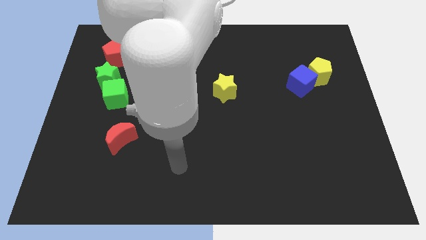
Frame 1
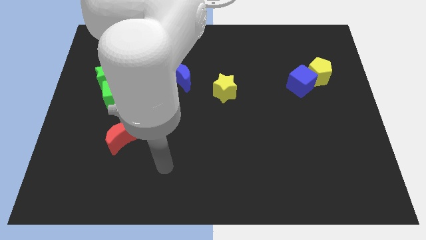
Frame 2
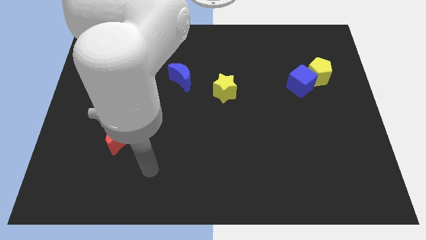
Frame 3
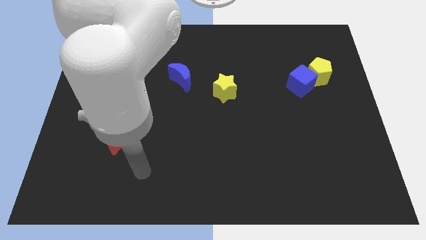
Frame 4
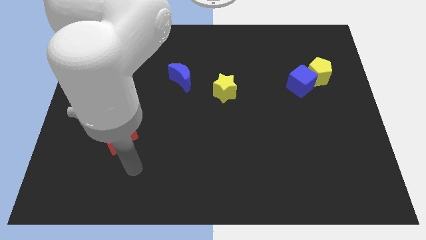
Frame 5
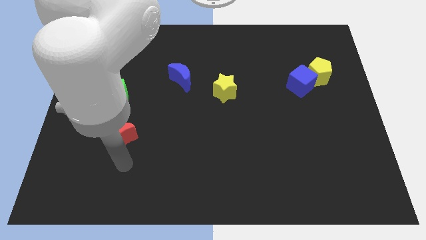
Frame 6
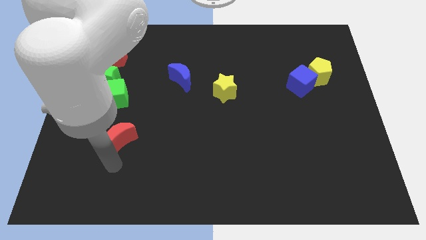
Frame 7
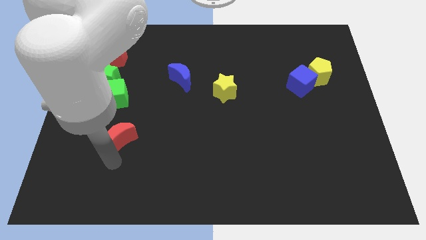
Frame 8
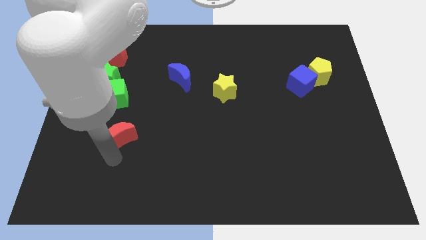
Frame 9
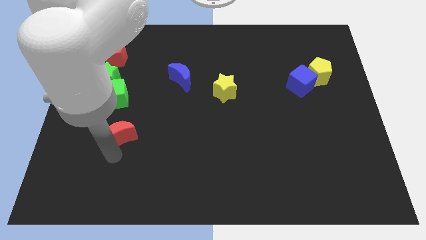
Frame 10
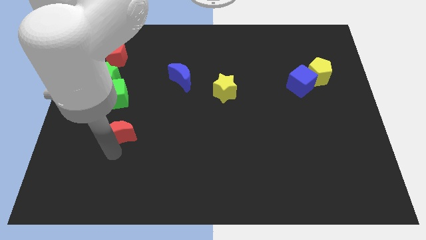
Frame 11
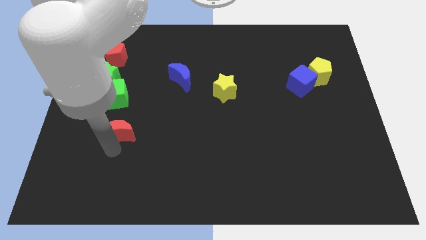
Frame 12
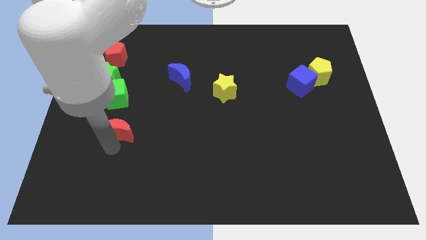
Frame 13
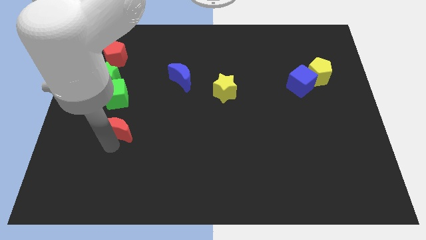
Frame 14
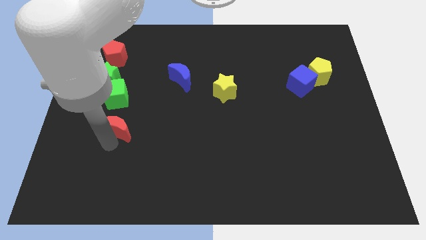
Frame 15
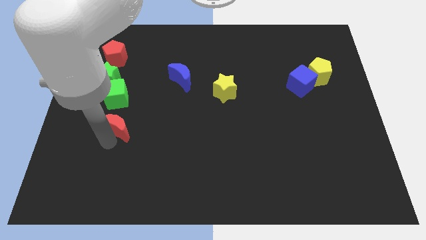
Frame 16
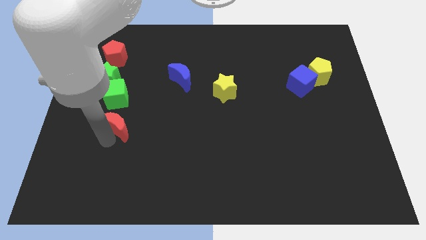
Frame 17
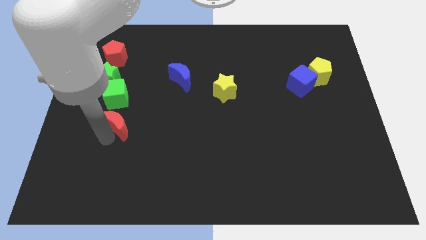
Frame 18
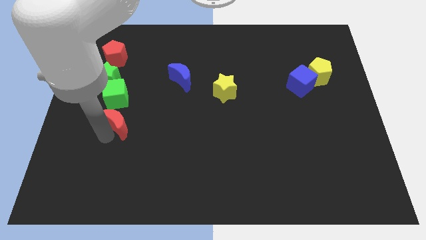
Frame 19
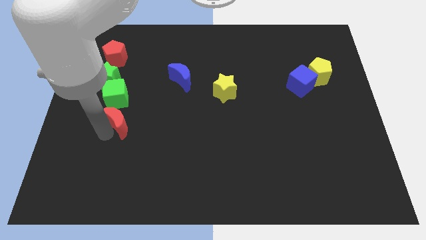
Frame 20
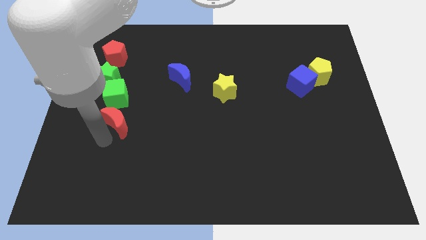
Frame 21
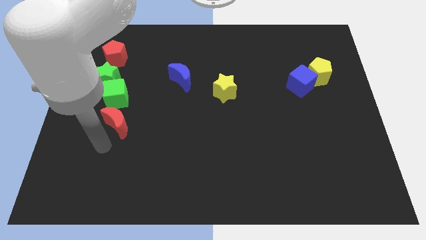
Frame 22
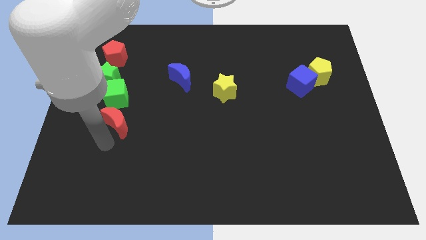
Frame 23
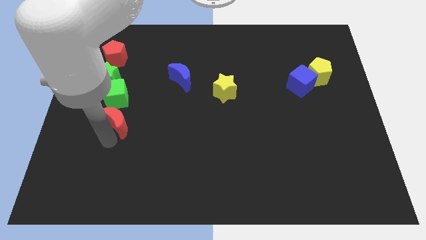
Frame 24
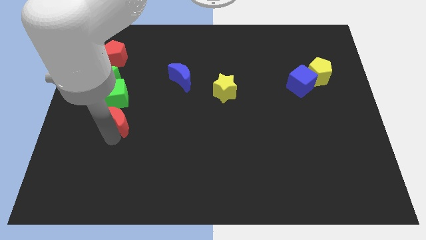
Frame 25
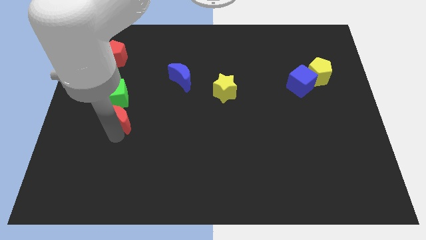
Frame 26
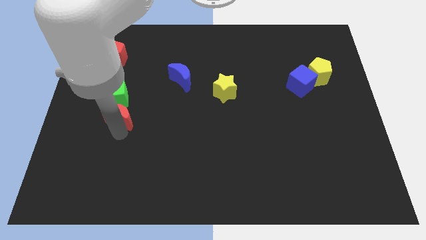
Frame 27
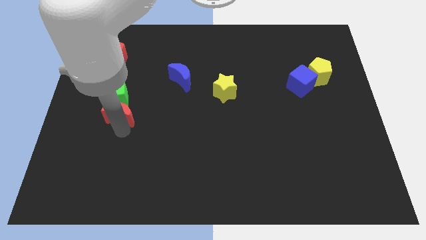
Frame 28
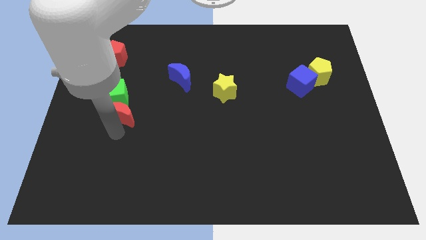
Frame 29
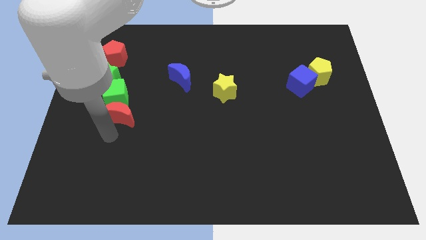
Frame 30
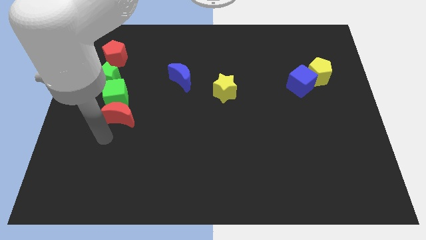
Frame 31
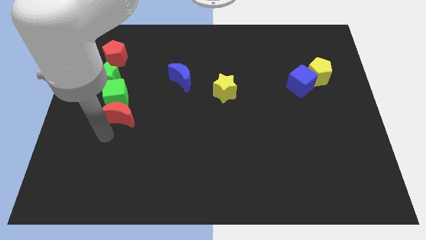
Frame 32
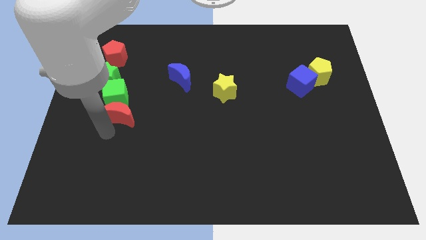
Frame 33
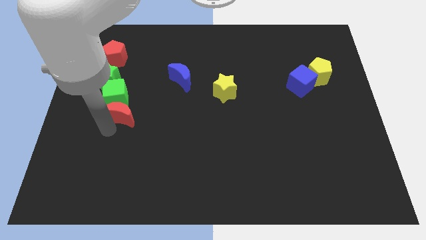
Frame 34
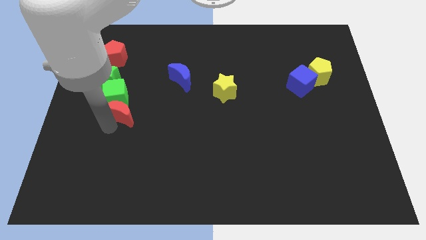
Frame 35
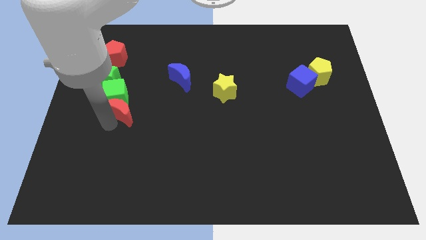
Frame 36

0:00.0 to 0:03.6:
slightly move the red moon up

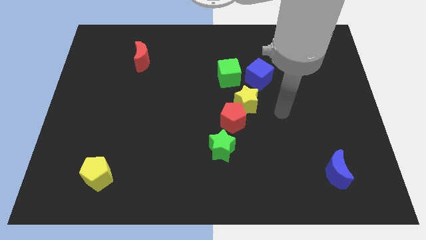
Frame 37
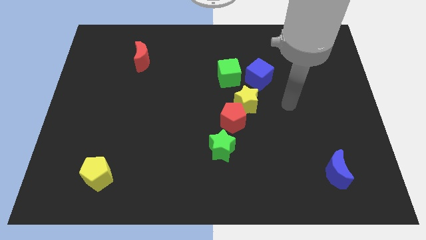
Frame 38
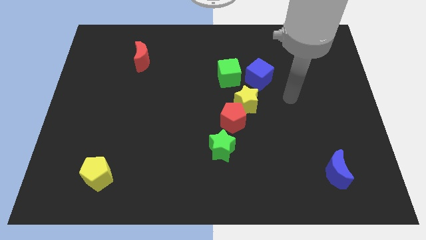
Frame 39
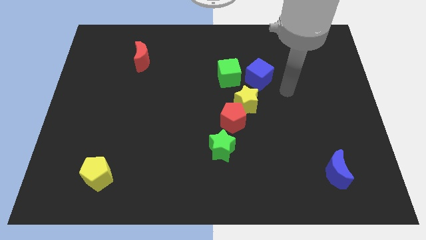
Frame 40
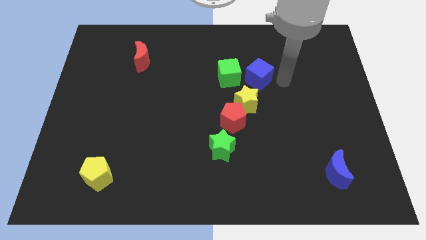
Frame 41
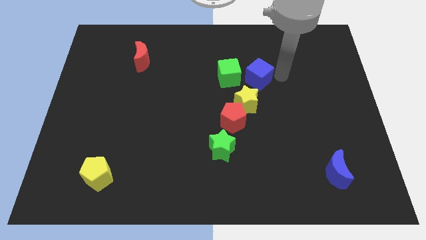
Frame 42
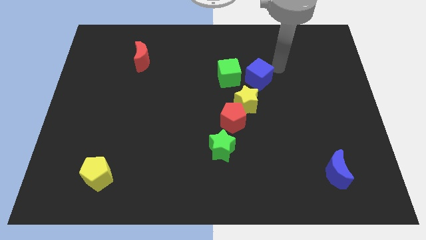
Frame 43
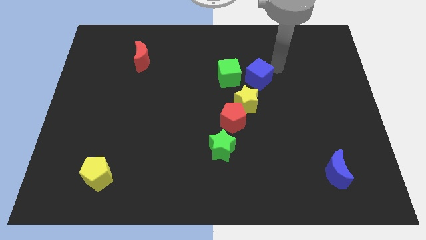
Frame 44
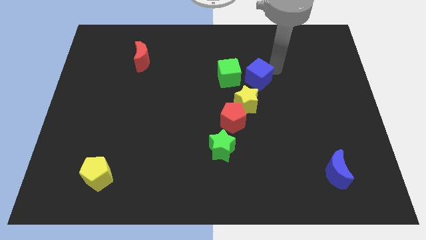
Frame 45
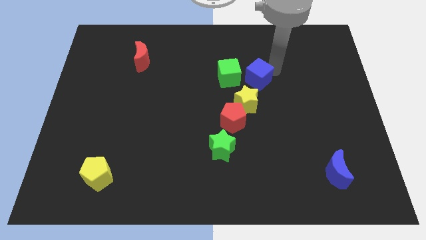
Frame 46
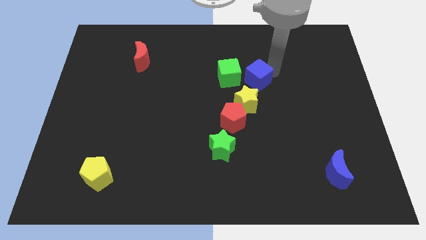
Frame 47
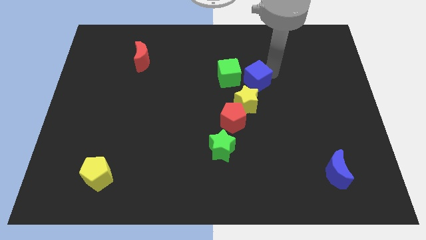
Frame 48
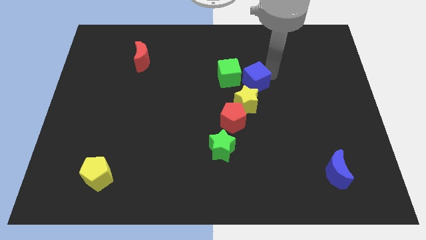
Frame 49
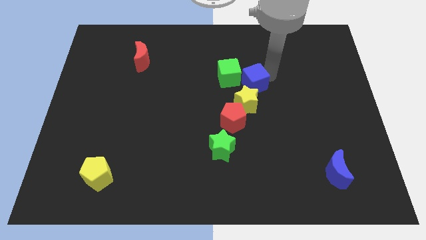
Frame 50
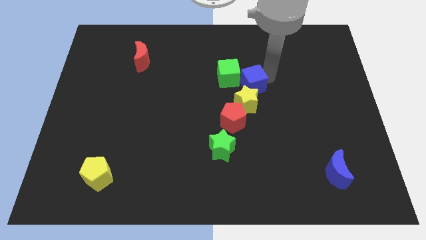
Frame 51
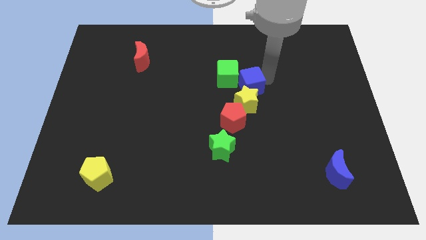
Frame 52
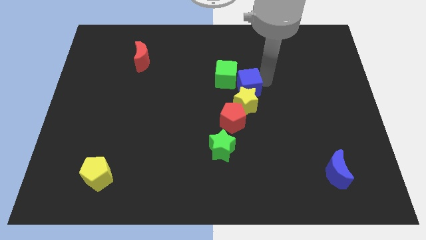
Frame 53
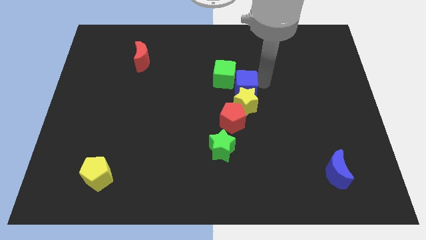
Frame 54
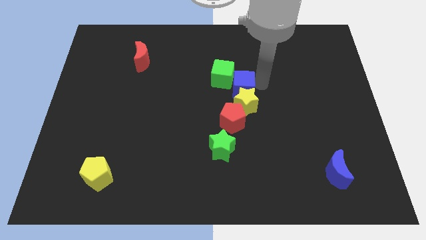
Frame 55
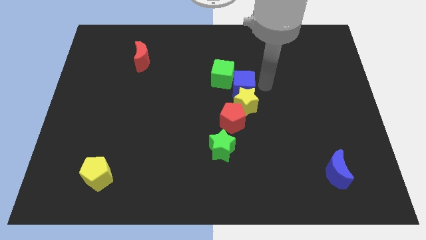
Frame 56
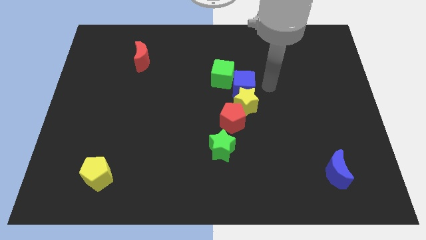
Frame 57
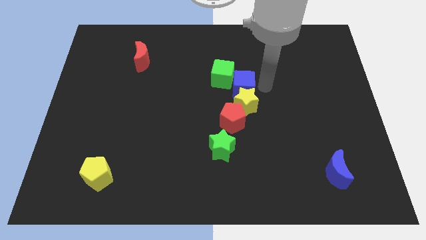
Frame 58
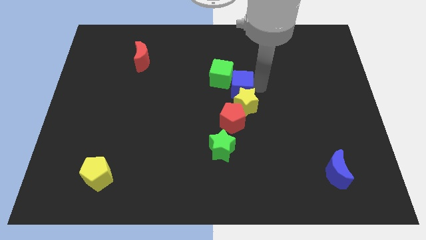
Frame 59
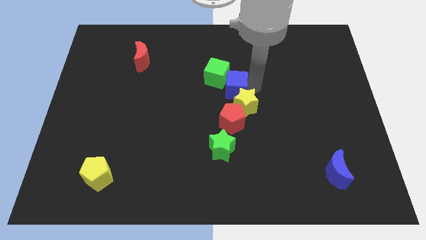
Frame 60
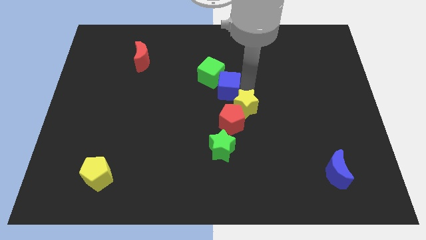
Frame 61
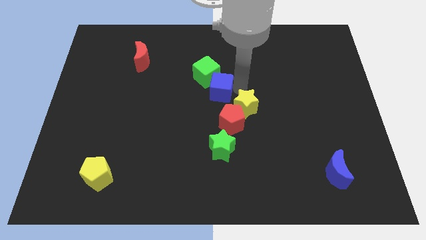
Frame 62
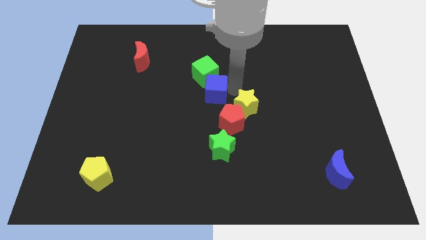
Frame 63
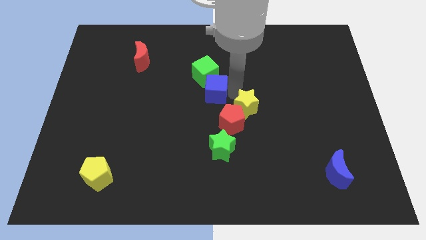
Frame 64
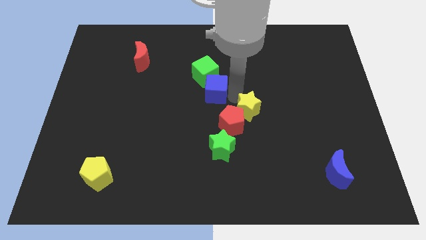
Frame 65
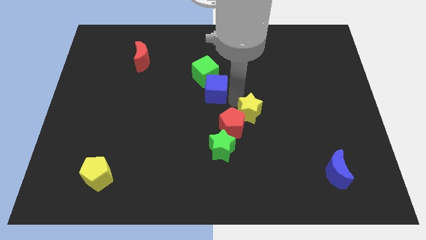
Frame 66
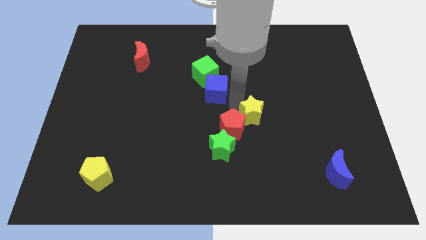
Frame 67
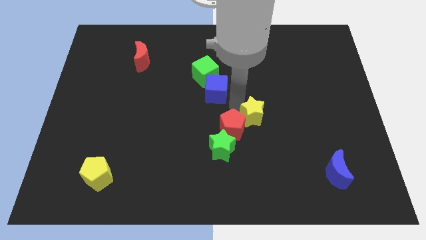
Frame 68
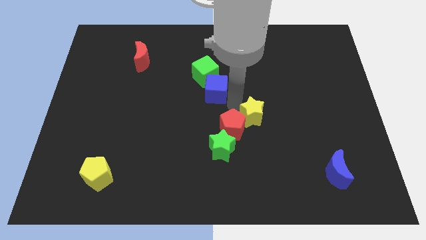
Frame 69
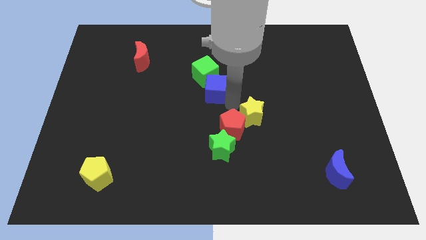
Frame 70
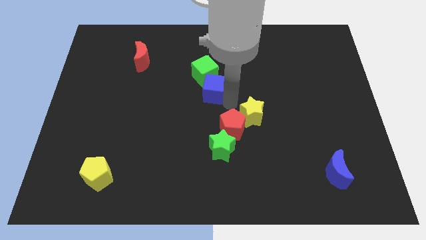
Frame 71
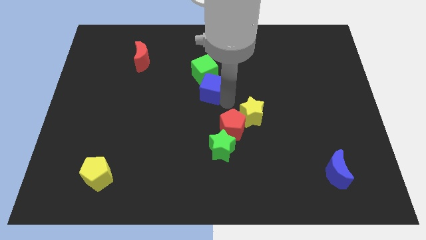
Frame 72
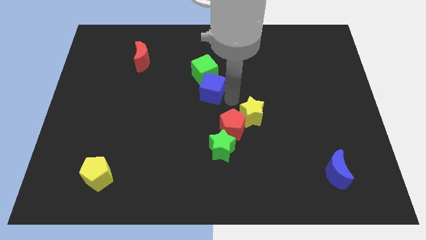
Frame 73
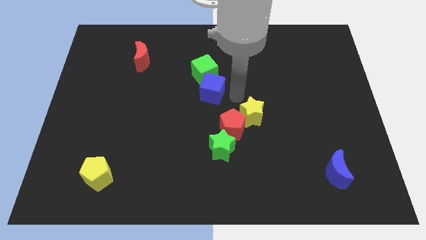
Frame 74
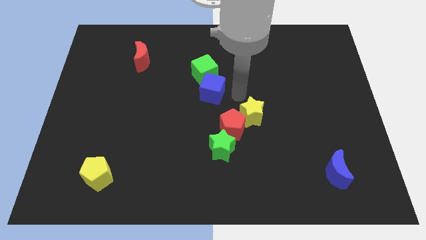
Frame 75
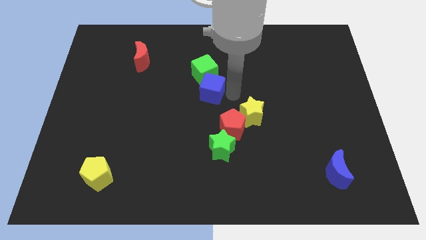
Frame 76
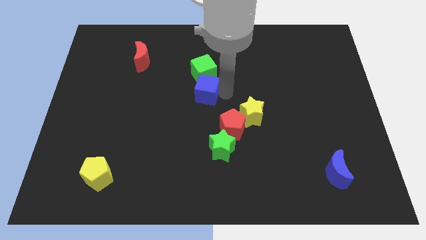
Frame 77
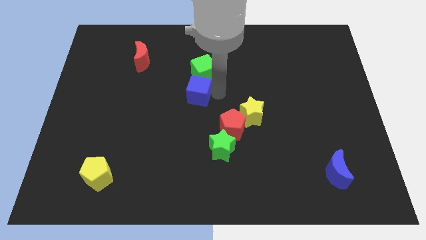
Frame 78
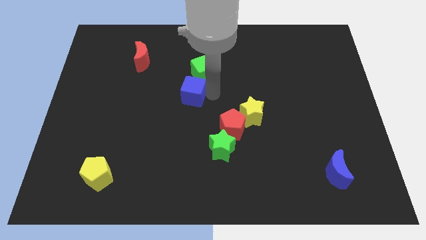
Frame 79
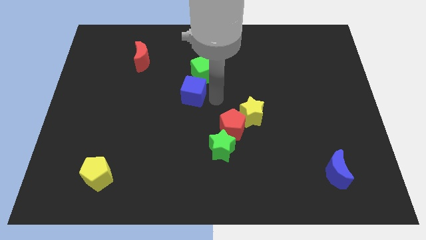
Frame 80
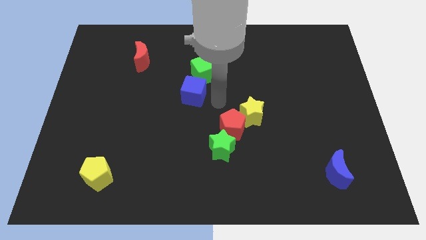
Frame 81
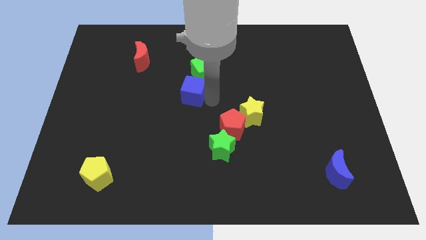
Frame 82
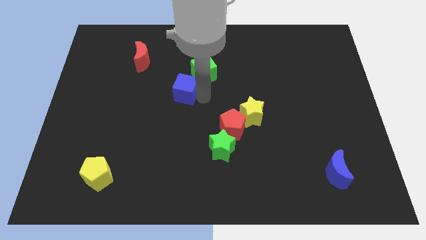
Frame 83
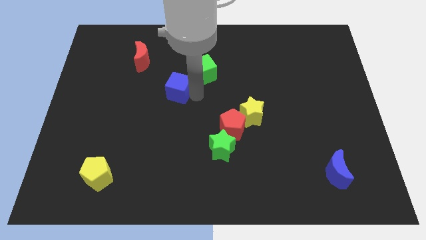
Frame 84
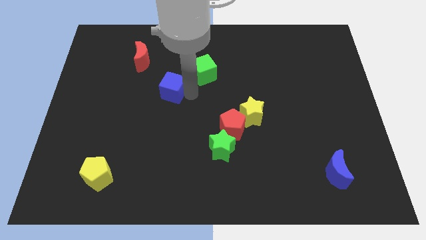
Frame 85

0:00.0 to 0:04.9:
push the blue cube to the left
